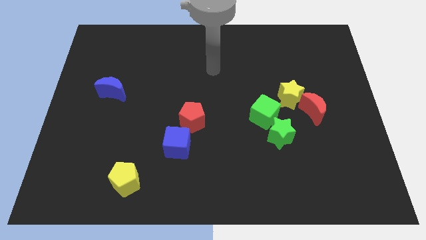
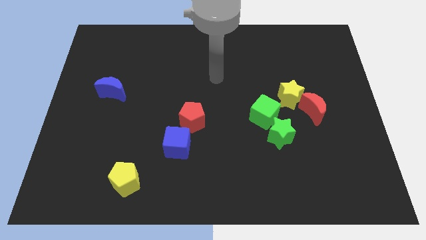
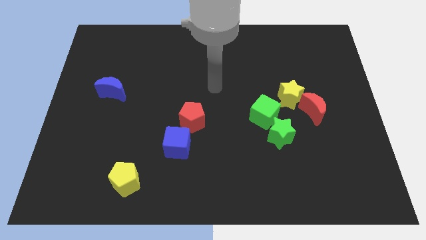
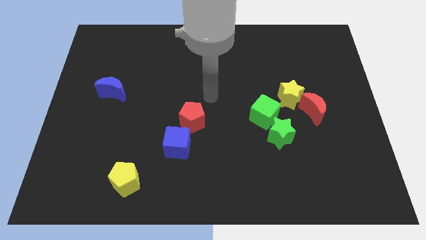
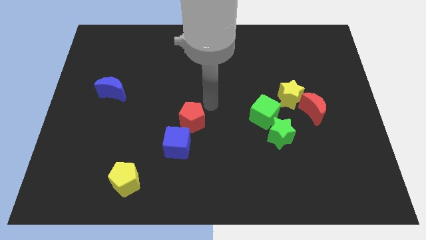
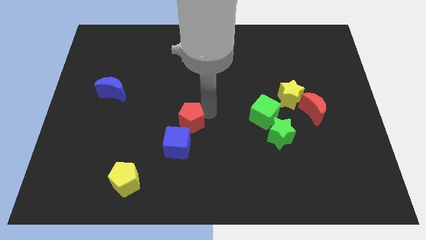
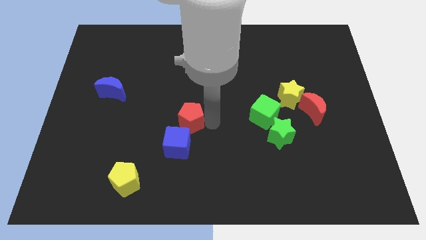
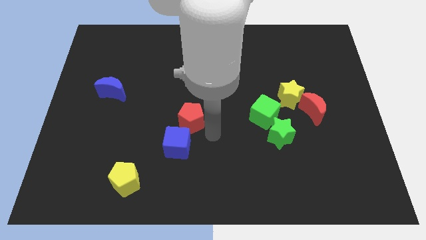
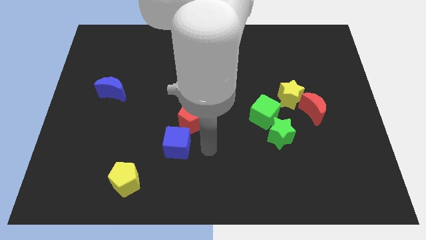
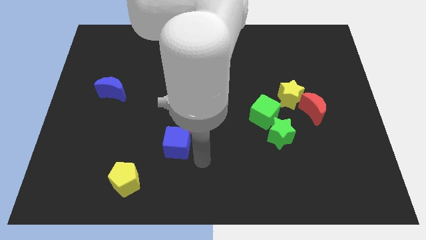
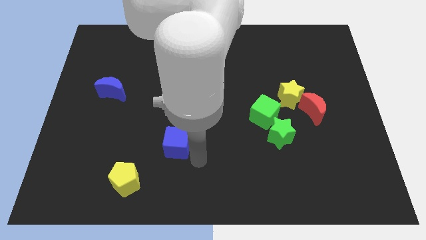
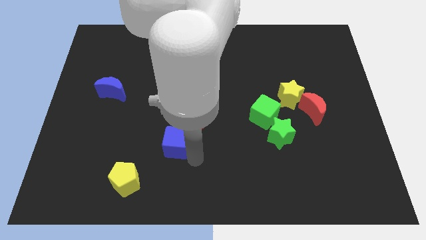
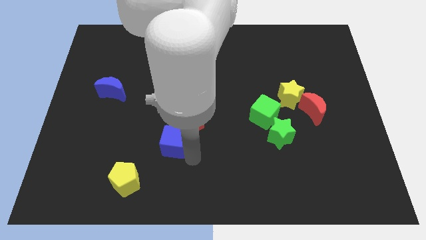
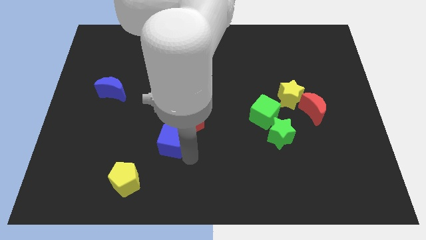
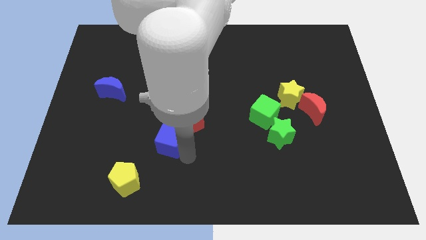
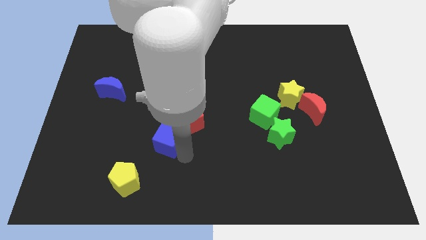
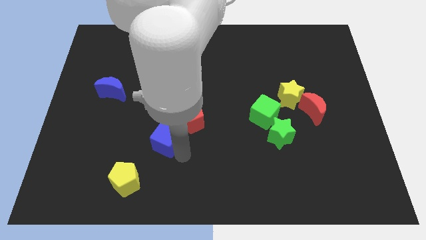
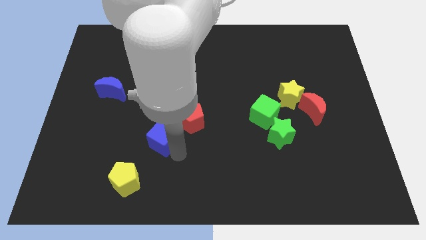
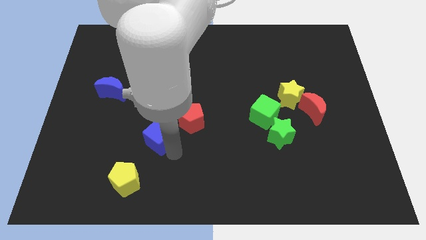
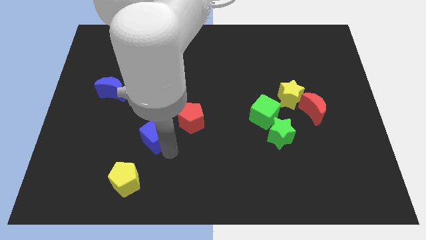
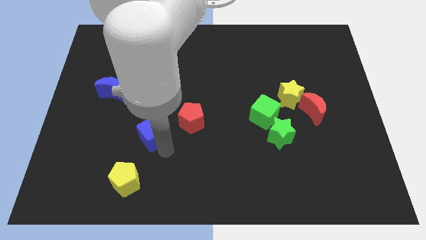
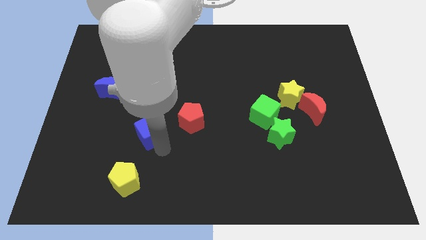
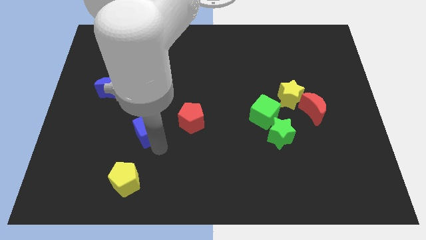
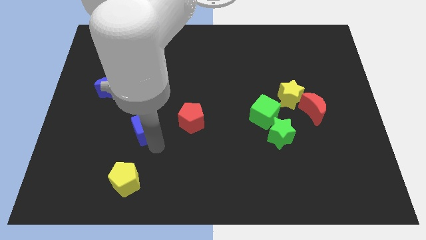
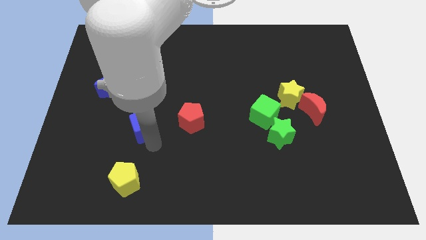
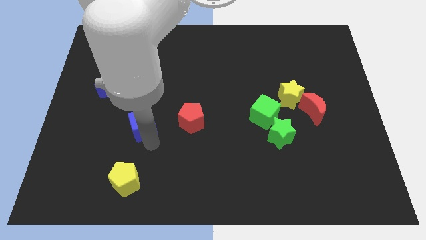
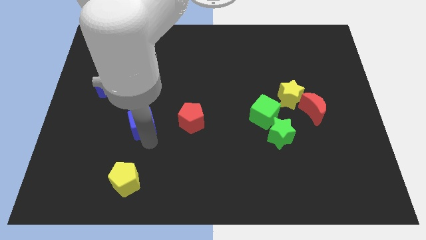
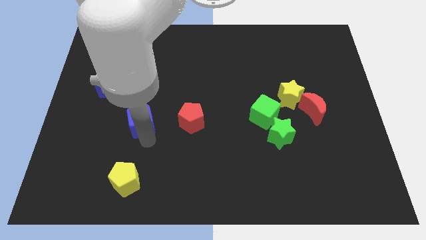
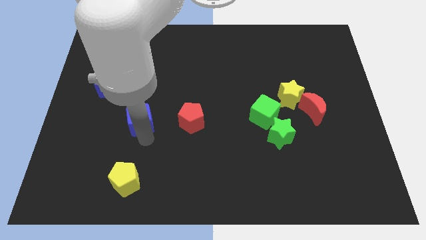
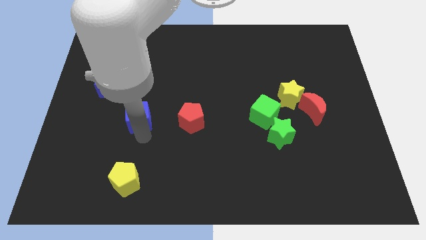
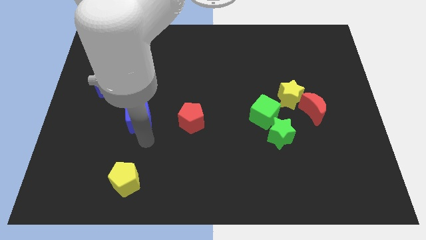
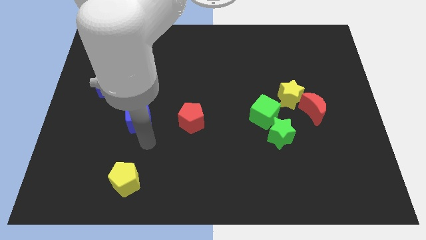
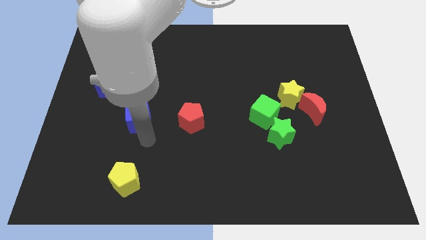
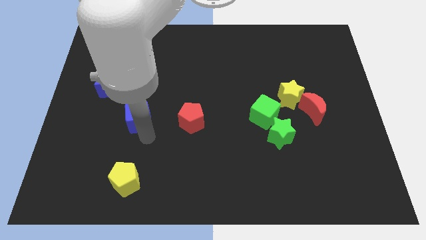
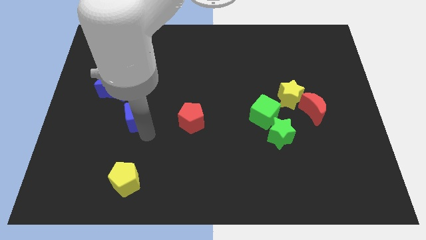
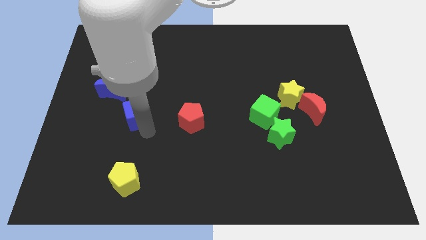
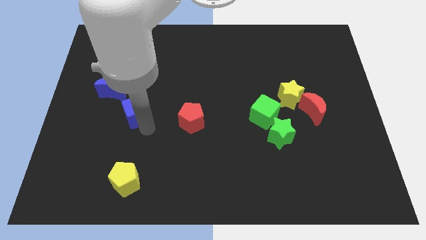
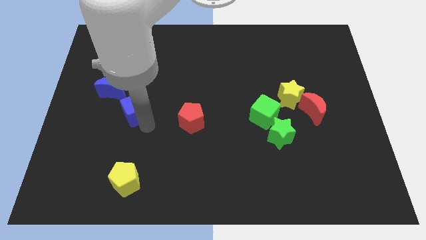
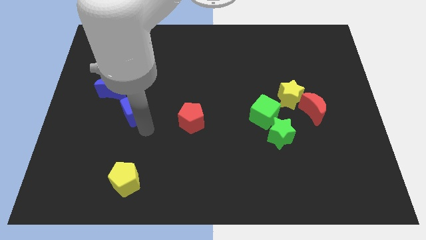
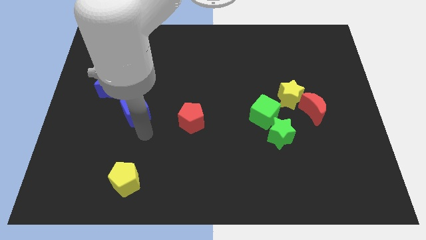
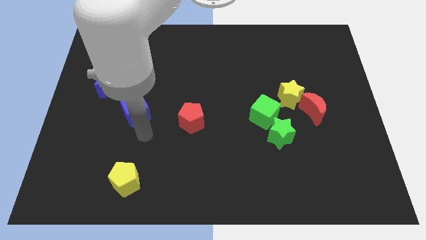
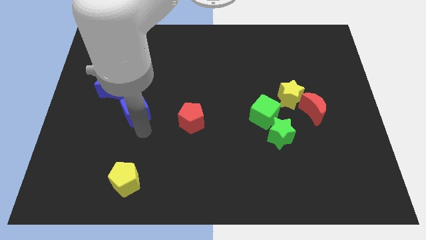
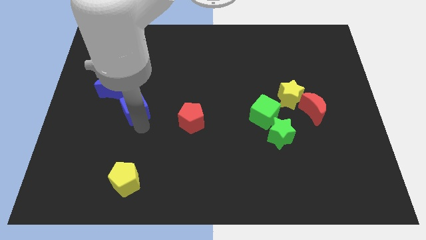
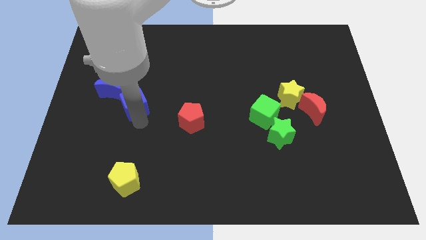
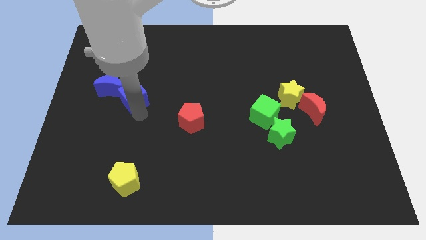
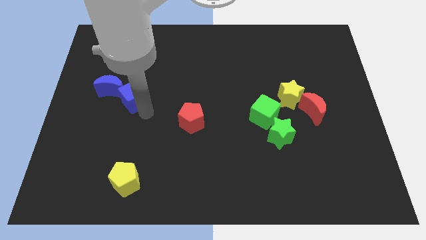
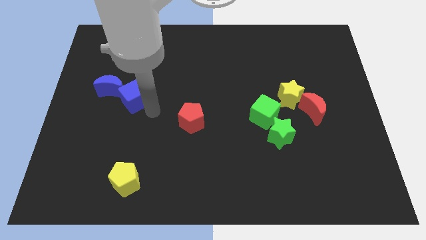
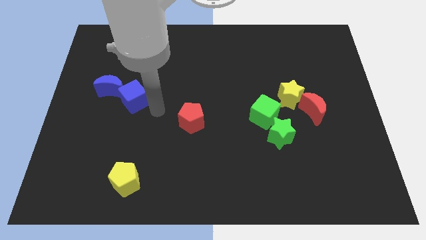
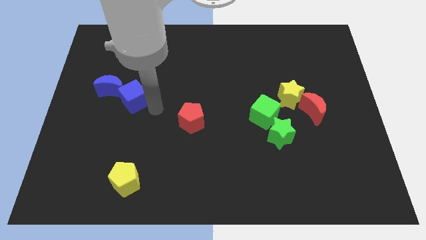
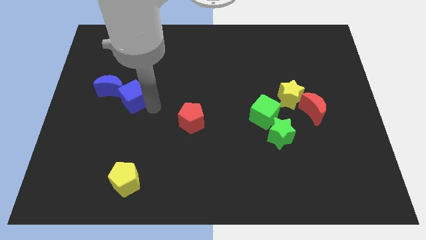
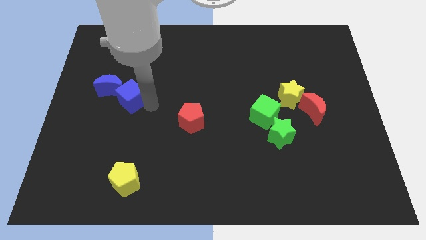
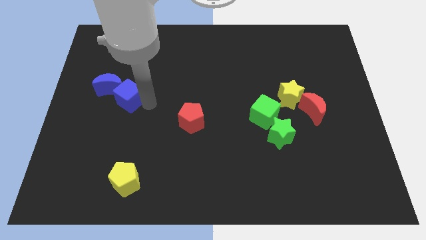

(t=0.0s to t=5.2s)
move the blue cube close to the blue moon

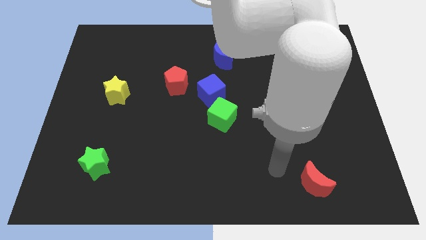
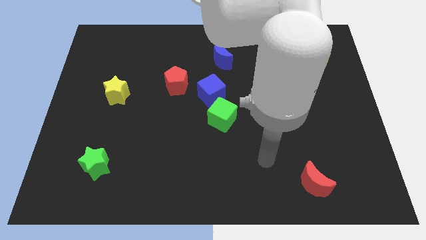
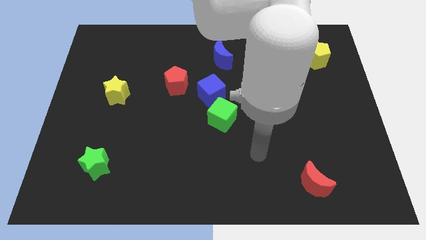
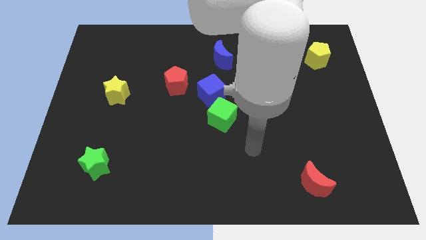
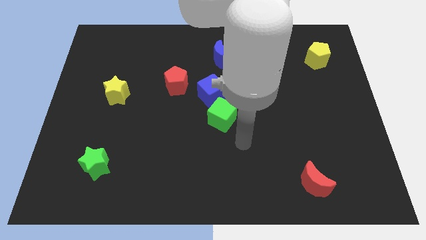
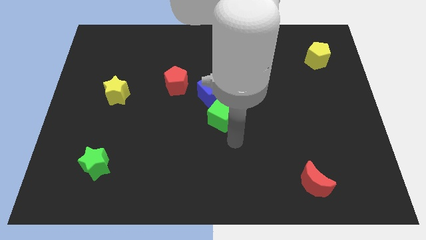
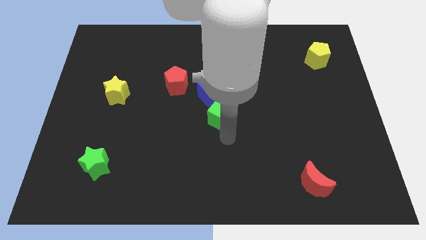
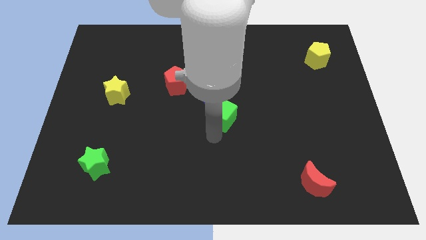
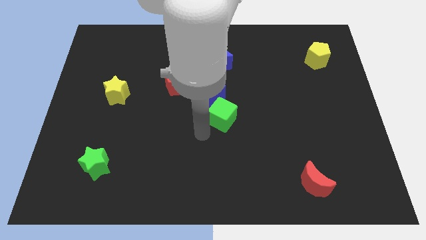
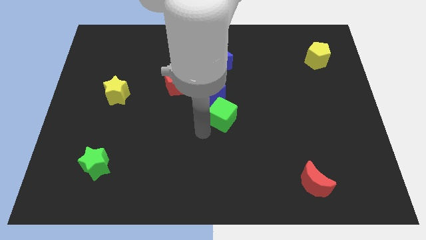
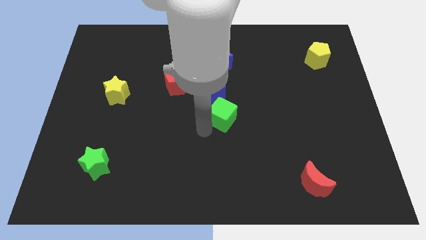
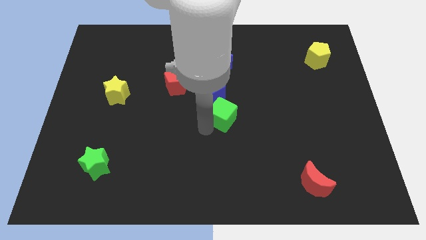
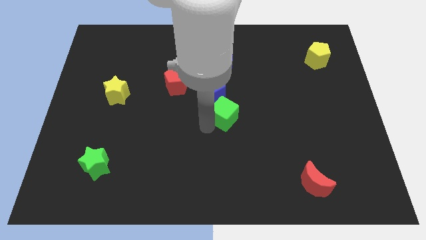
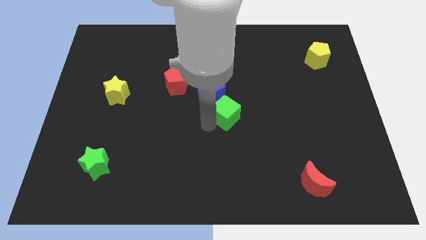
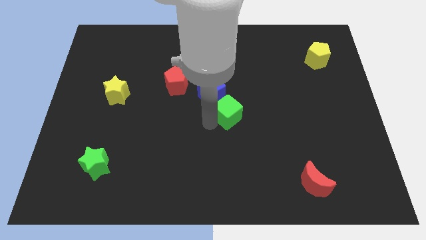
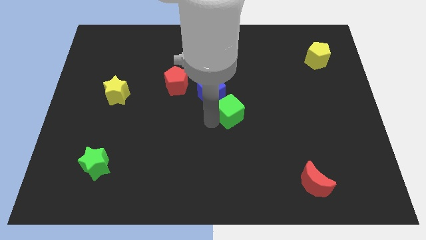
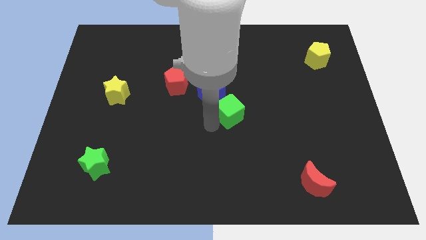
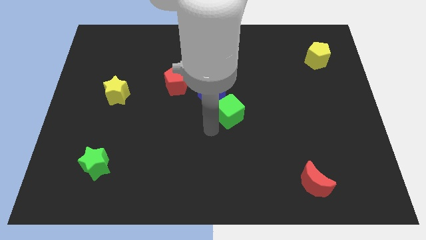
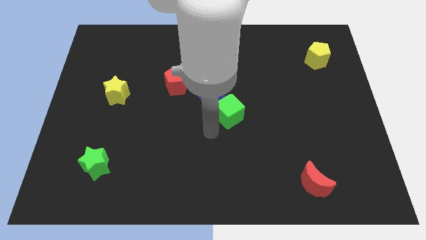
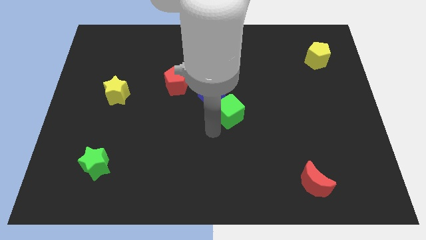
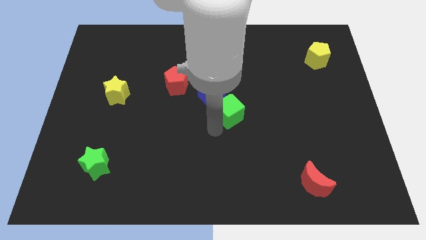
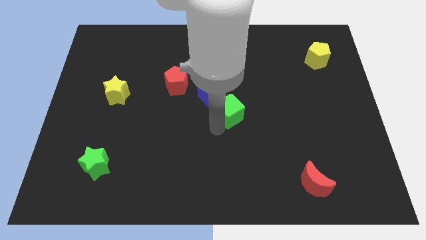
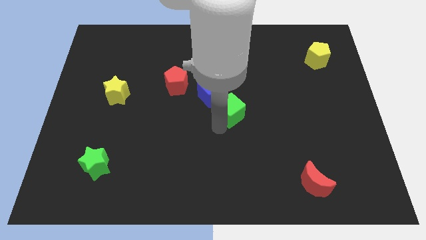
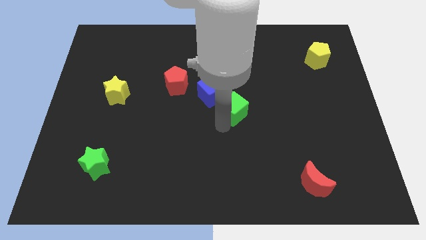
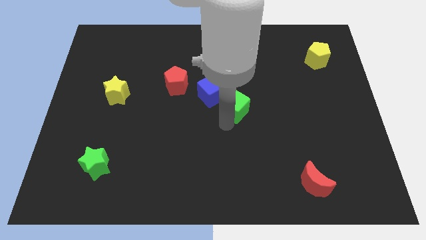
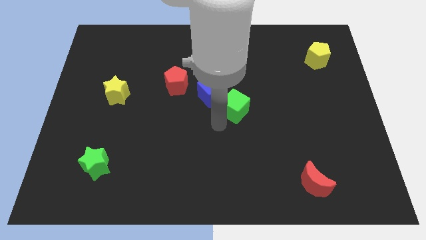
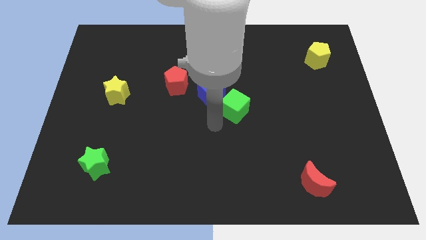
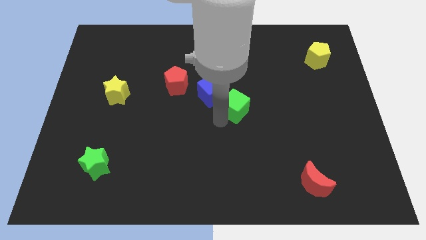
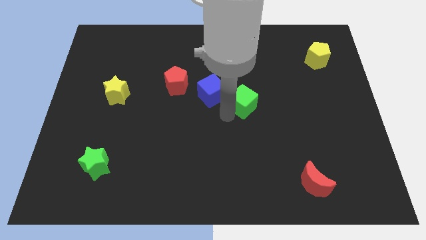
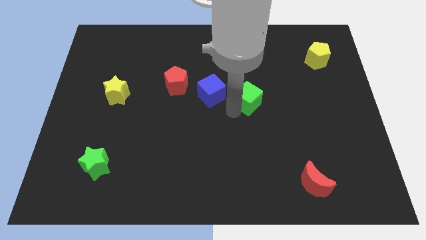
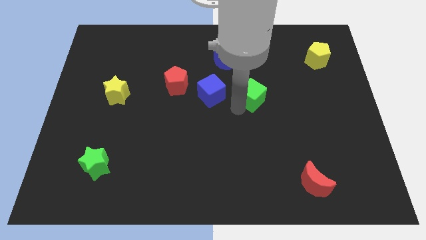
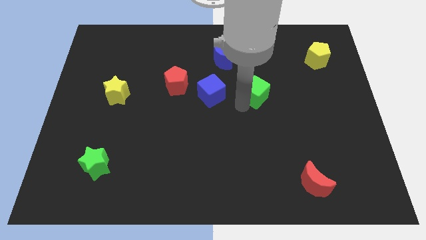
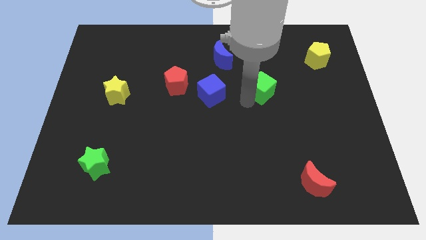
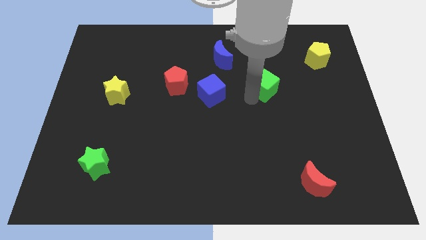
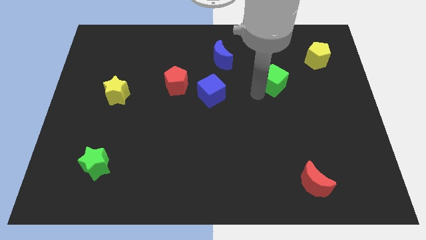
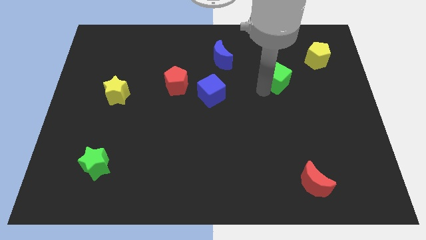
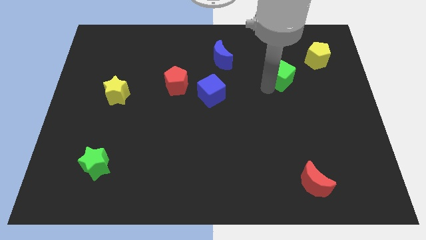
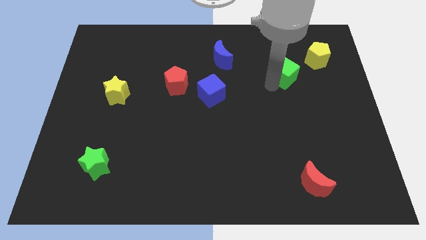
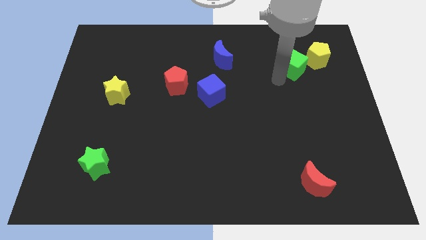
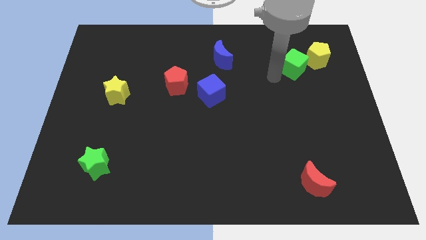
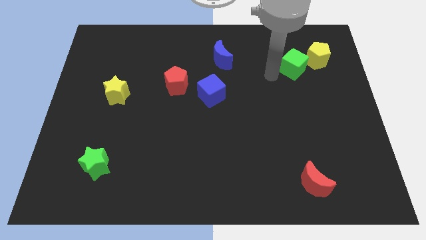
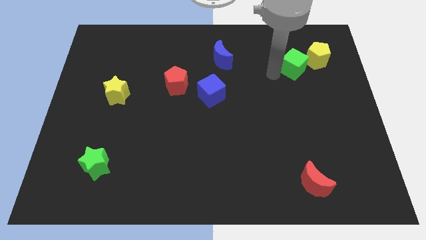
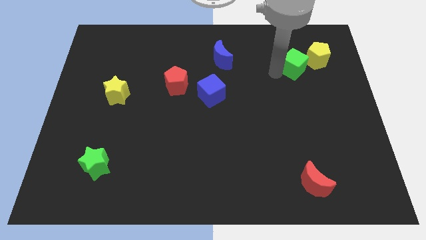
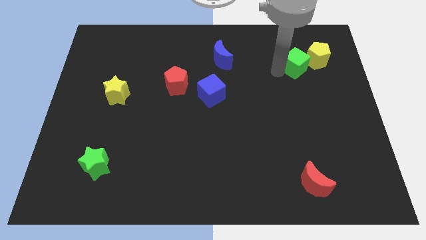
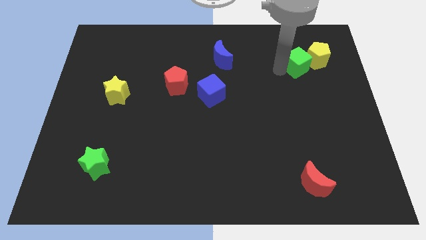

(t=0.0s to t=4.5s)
slide the green cube to the yellow pentagon
